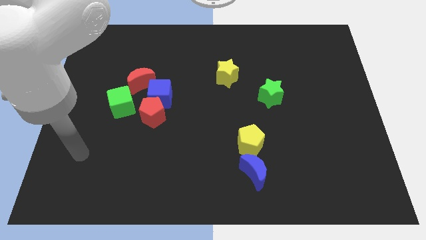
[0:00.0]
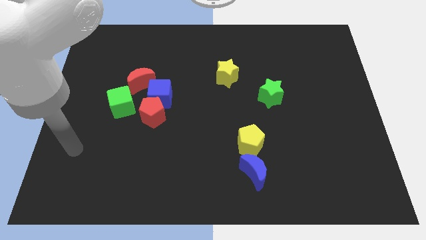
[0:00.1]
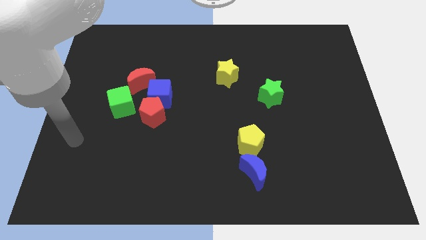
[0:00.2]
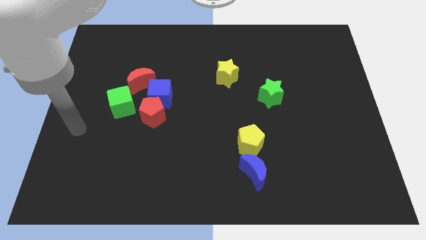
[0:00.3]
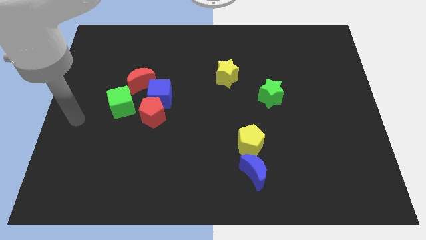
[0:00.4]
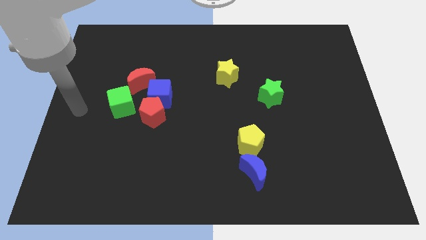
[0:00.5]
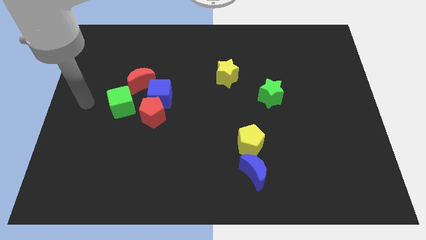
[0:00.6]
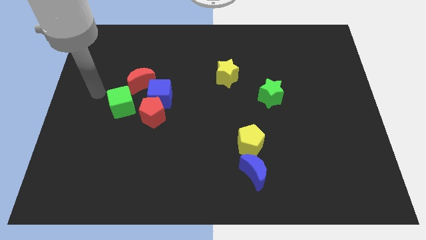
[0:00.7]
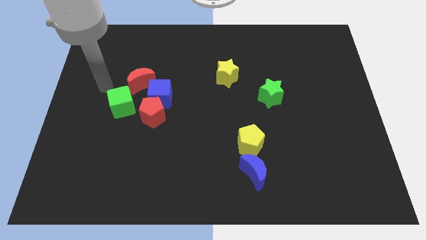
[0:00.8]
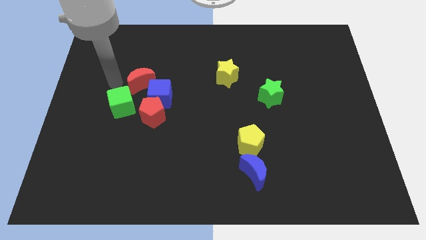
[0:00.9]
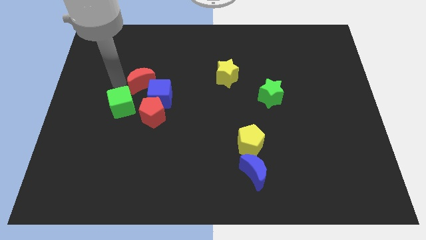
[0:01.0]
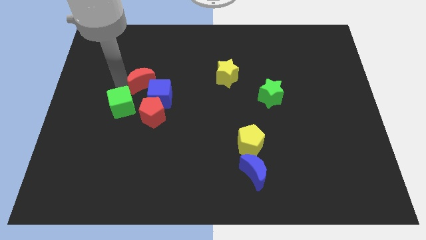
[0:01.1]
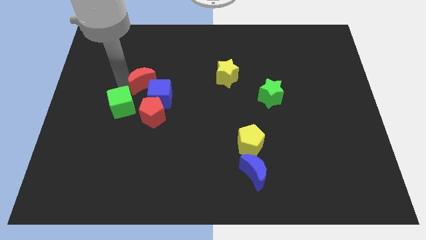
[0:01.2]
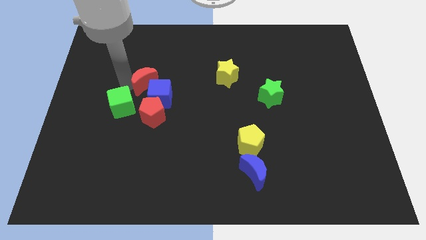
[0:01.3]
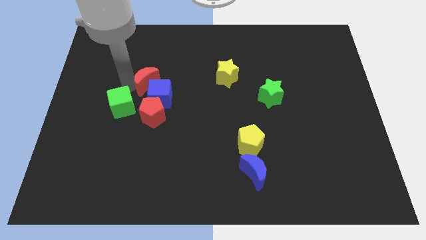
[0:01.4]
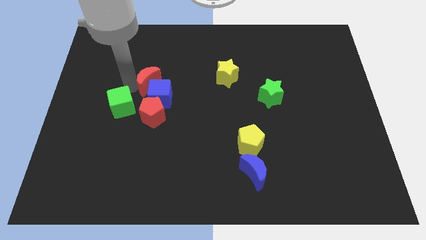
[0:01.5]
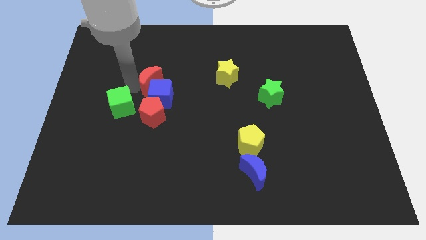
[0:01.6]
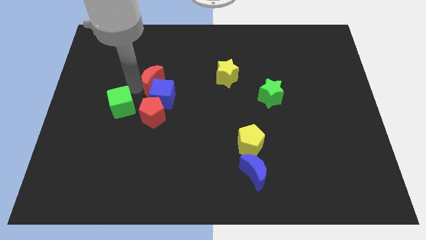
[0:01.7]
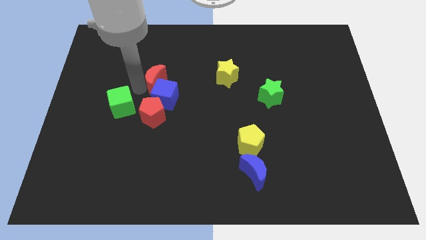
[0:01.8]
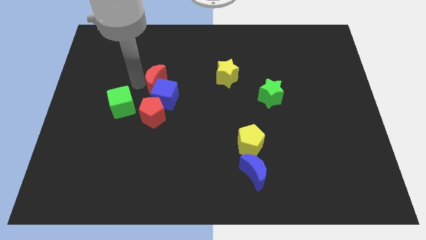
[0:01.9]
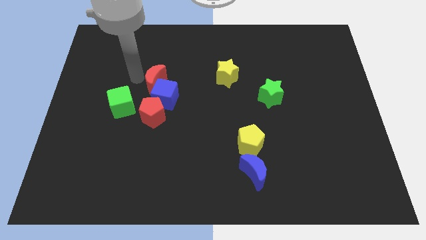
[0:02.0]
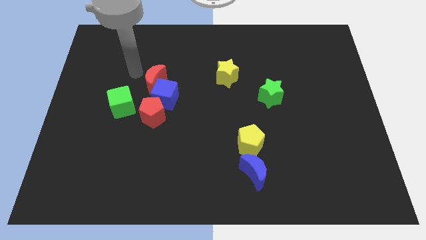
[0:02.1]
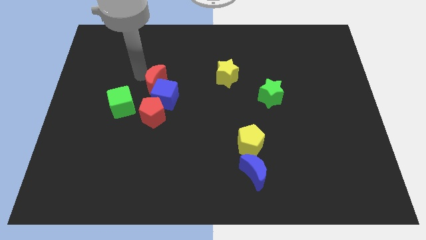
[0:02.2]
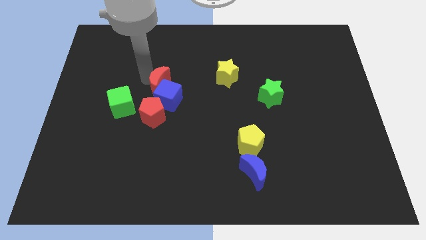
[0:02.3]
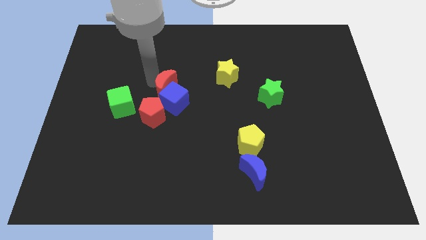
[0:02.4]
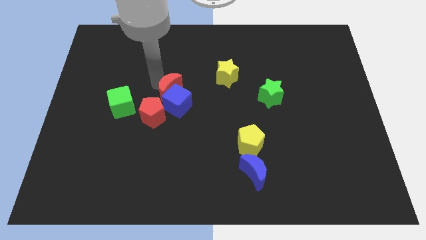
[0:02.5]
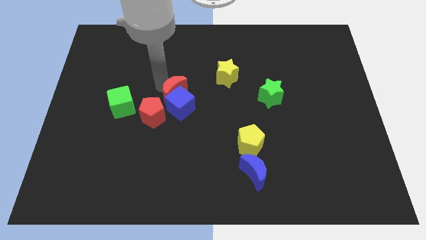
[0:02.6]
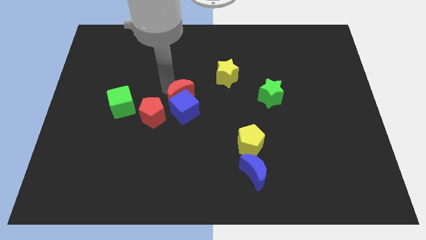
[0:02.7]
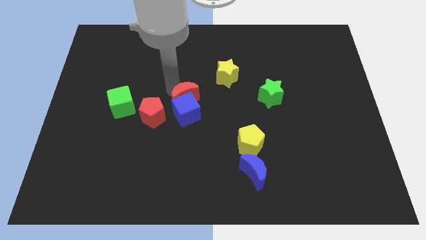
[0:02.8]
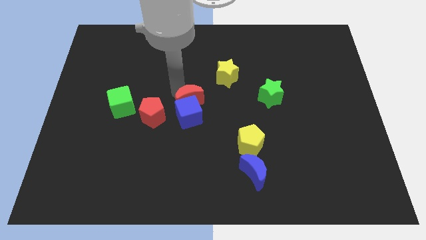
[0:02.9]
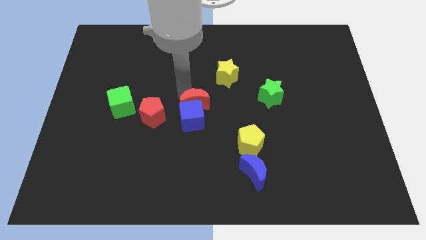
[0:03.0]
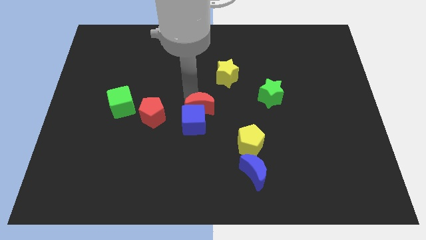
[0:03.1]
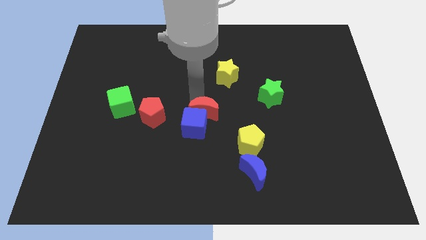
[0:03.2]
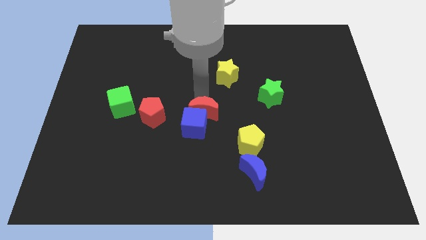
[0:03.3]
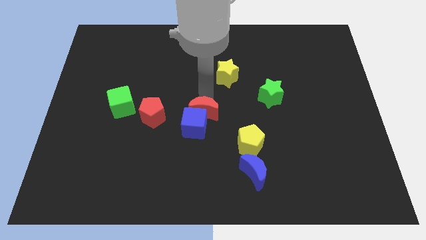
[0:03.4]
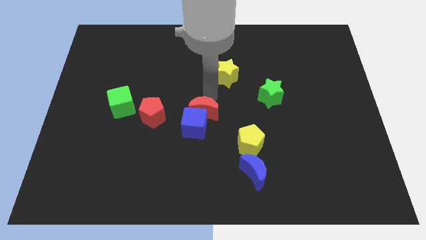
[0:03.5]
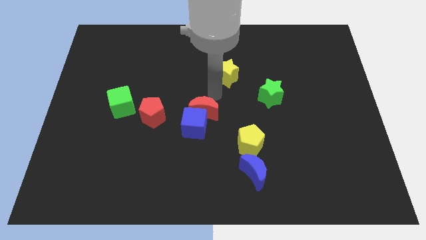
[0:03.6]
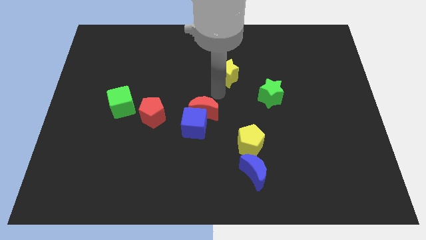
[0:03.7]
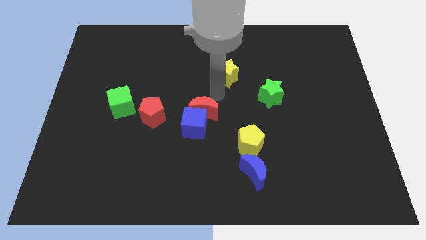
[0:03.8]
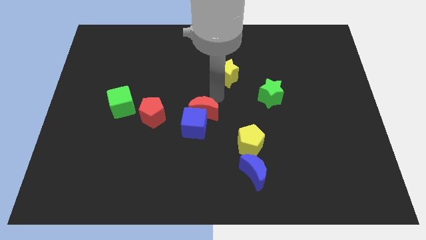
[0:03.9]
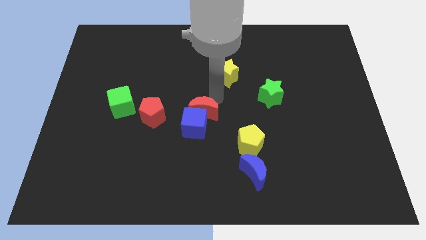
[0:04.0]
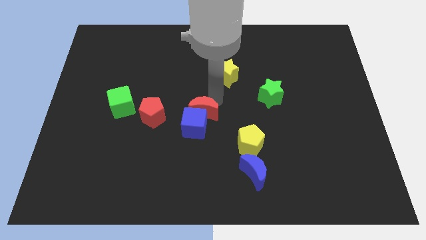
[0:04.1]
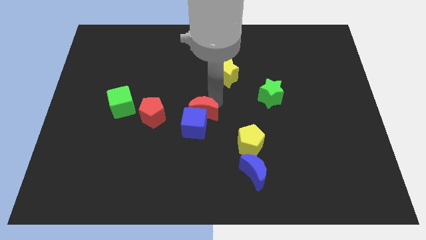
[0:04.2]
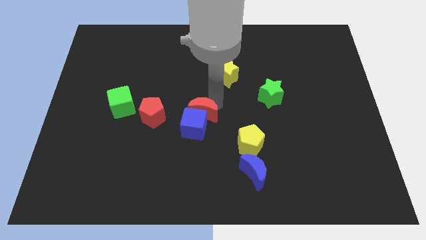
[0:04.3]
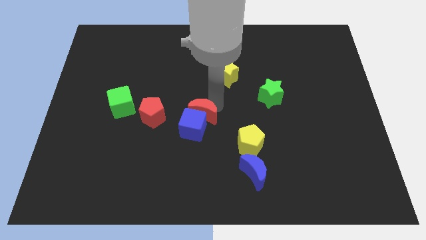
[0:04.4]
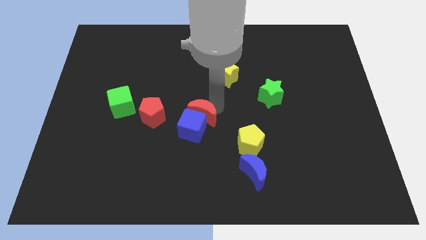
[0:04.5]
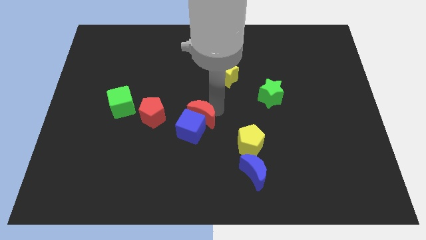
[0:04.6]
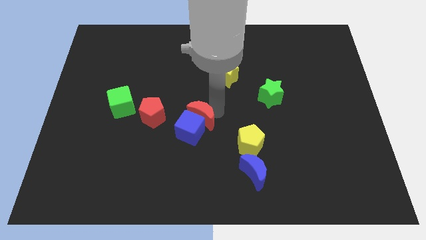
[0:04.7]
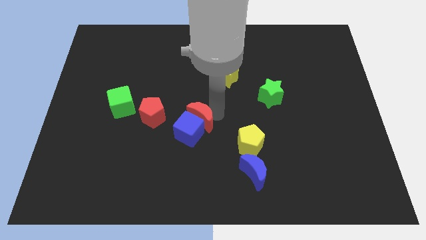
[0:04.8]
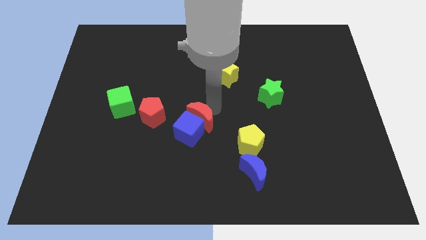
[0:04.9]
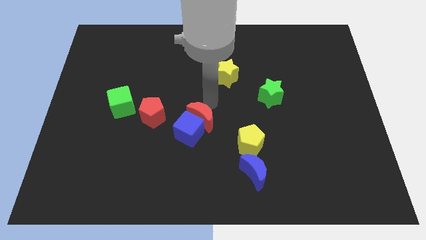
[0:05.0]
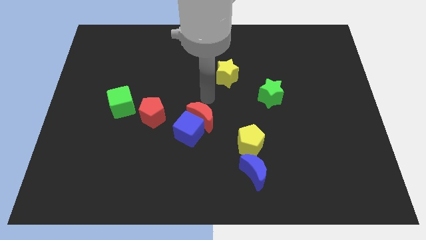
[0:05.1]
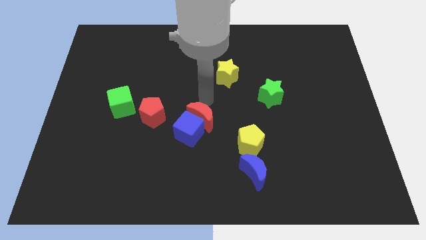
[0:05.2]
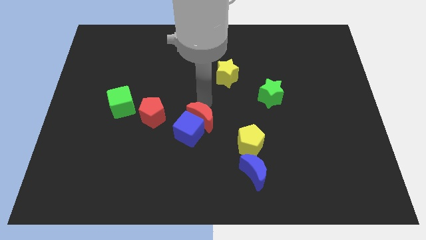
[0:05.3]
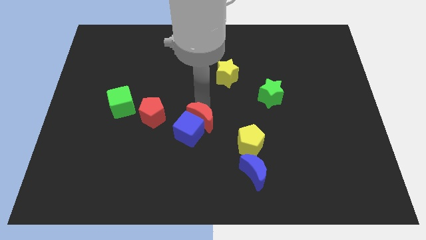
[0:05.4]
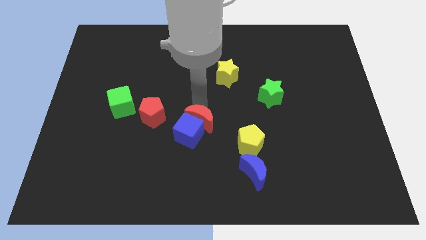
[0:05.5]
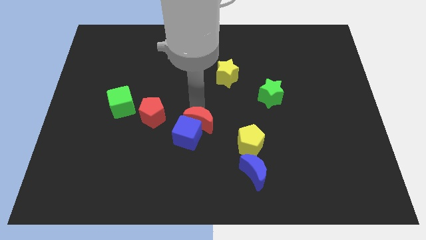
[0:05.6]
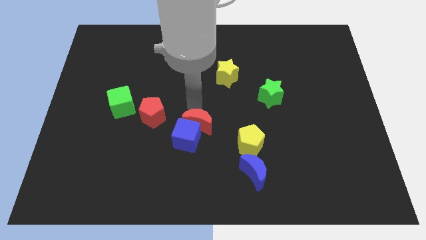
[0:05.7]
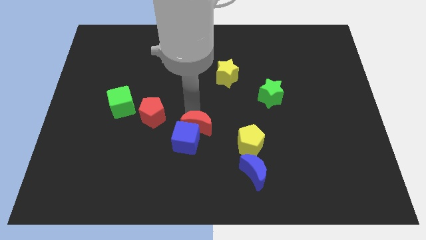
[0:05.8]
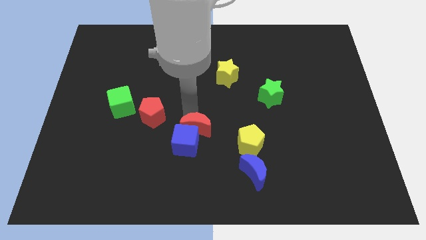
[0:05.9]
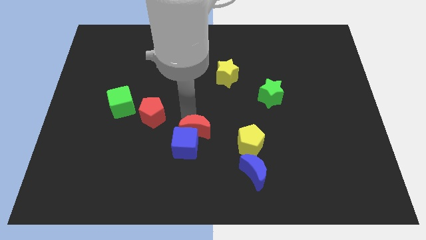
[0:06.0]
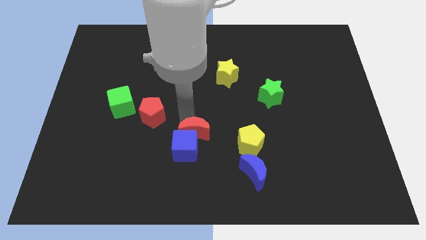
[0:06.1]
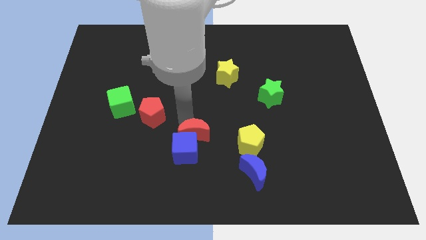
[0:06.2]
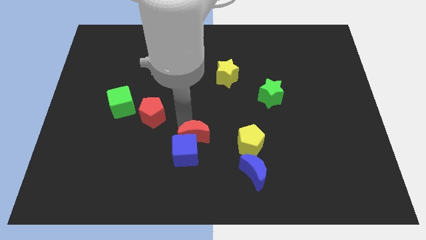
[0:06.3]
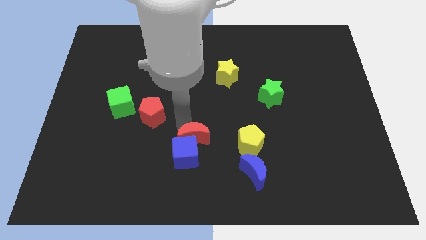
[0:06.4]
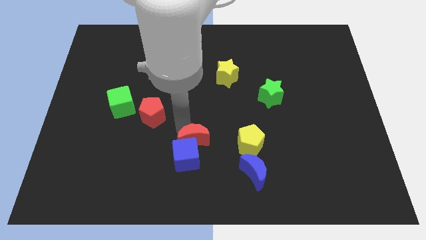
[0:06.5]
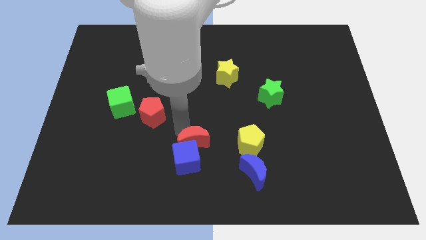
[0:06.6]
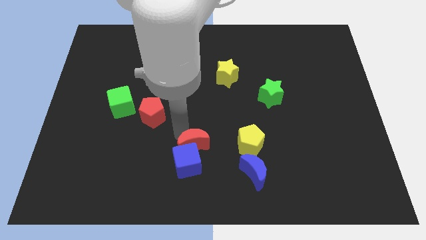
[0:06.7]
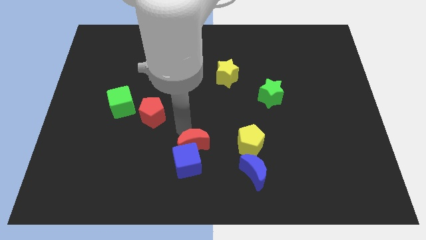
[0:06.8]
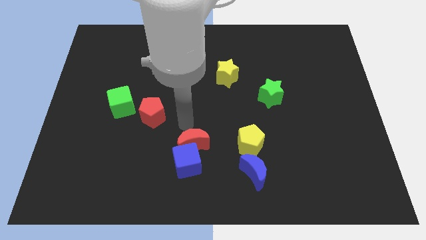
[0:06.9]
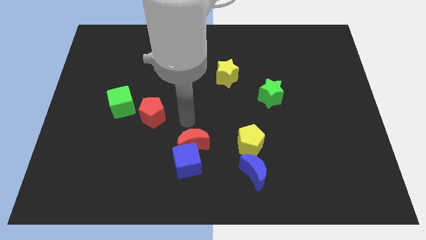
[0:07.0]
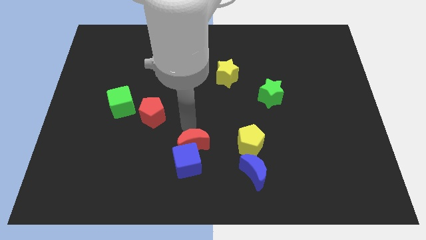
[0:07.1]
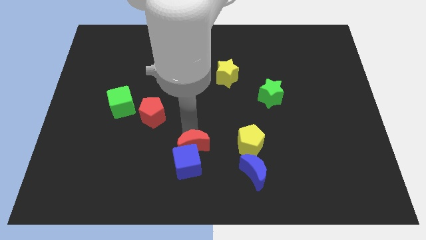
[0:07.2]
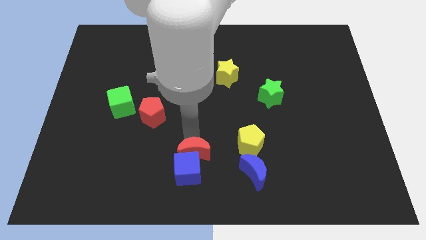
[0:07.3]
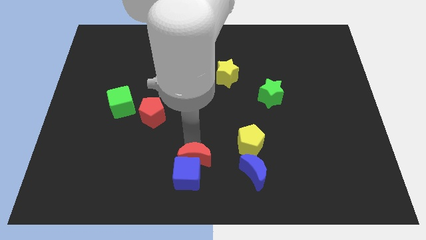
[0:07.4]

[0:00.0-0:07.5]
move the red moon to the bottom
